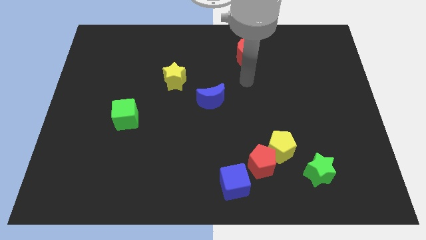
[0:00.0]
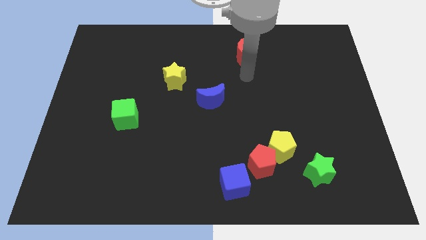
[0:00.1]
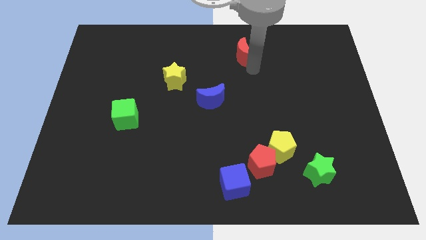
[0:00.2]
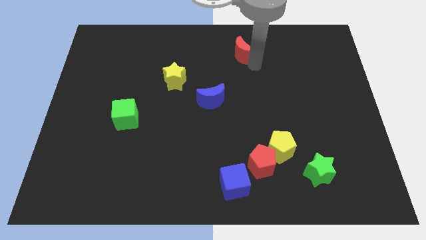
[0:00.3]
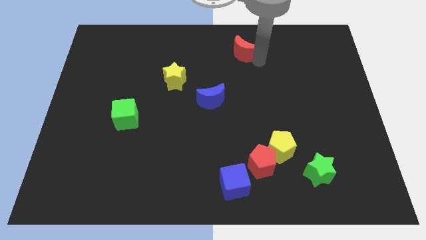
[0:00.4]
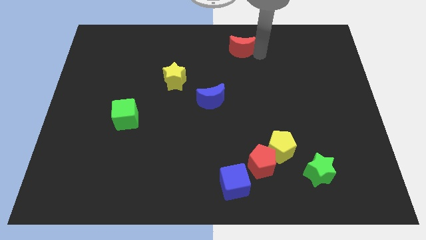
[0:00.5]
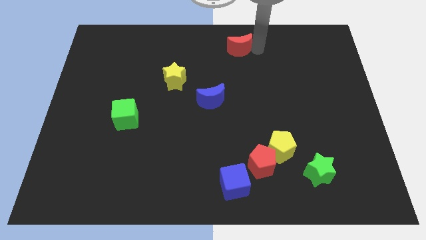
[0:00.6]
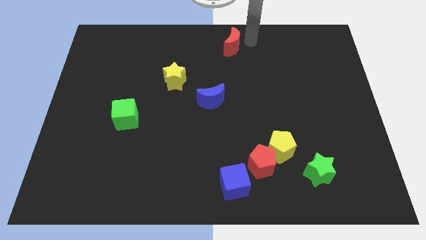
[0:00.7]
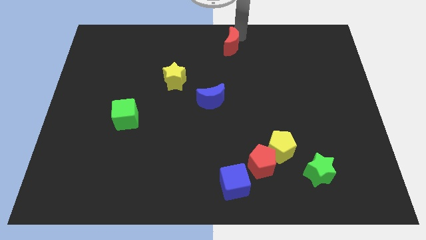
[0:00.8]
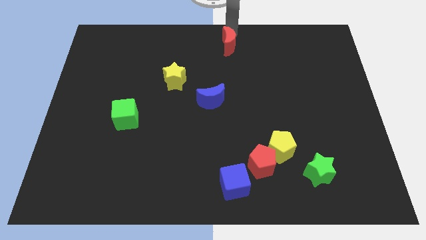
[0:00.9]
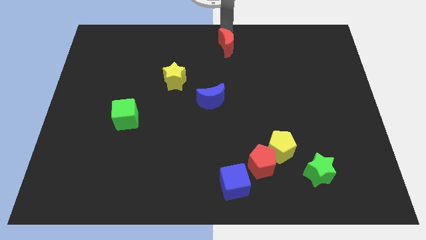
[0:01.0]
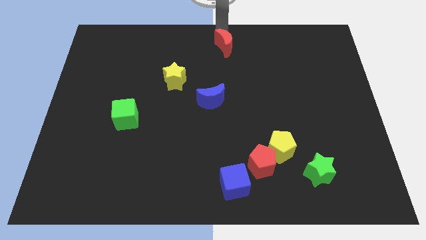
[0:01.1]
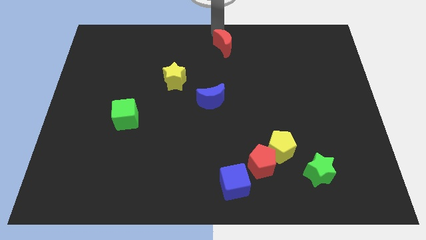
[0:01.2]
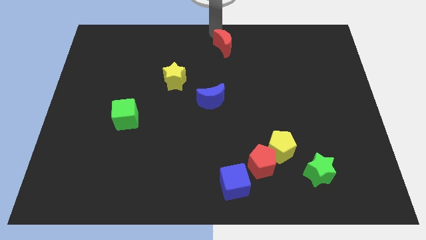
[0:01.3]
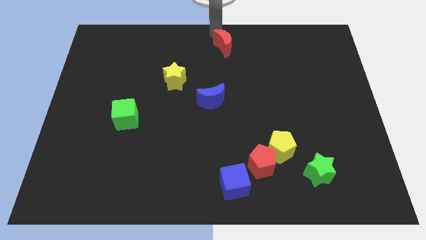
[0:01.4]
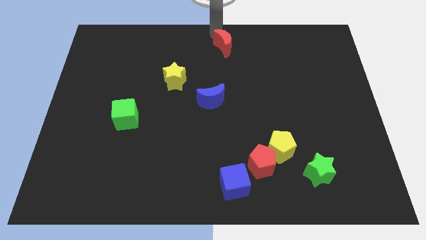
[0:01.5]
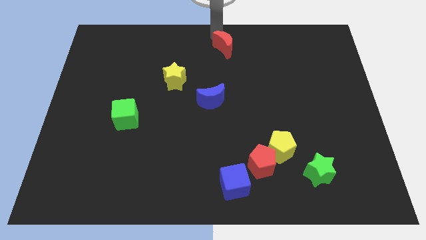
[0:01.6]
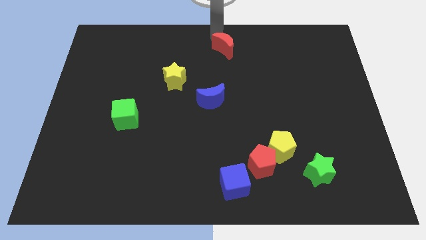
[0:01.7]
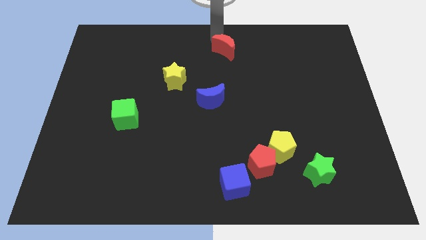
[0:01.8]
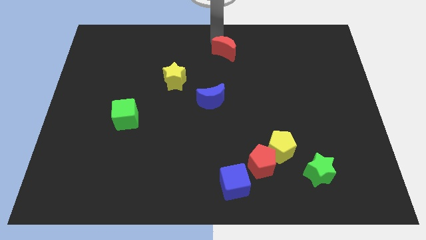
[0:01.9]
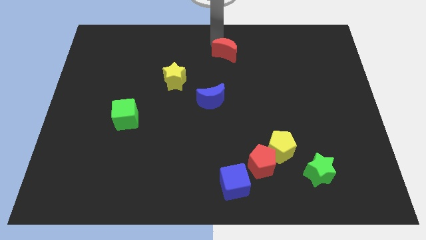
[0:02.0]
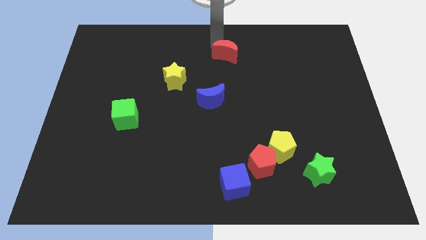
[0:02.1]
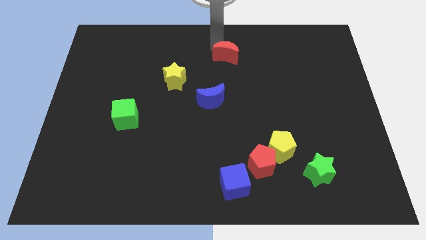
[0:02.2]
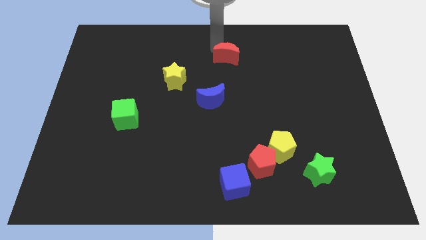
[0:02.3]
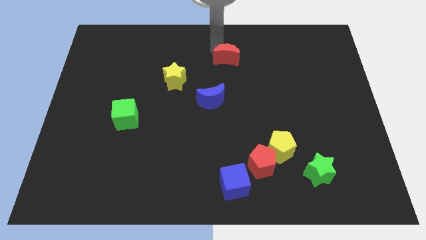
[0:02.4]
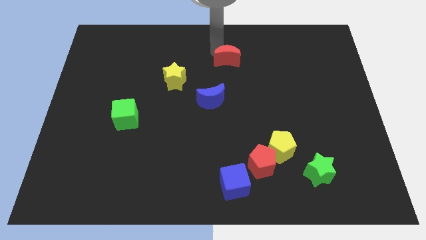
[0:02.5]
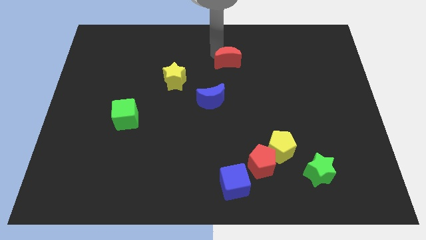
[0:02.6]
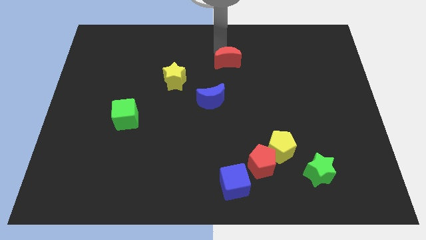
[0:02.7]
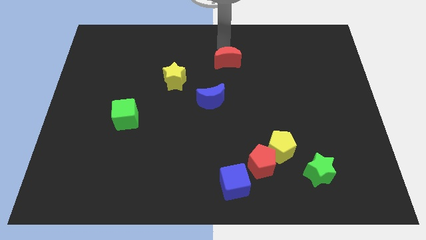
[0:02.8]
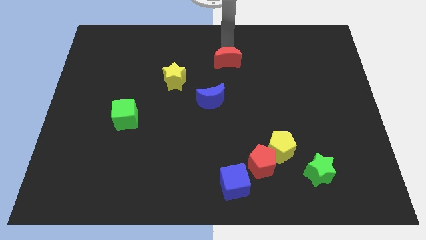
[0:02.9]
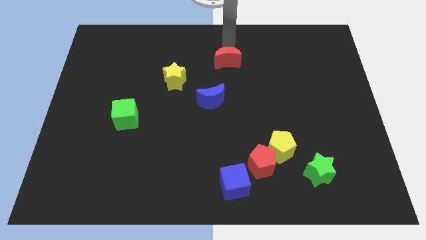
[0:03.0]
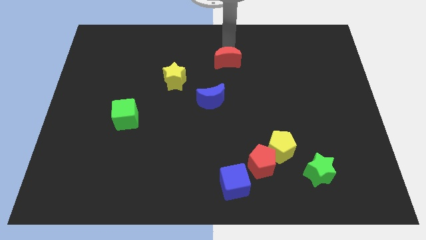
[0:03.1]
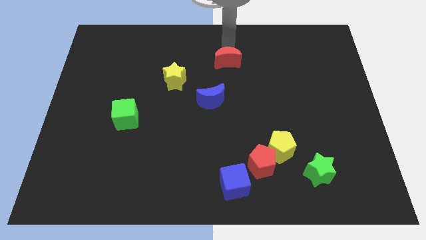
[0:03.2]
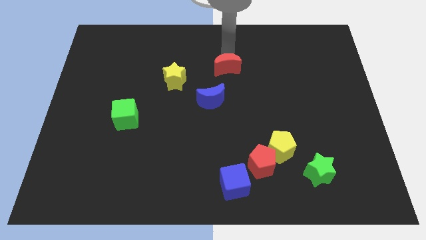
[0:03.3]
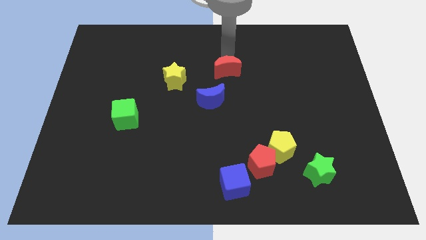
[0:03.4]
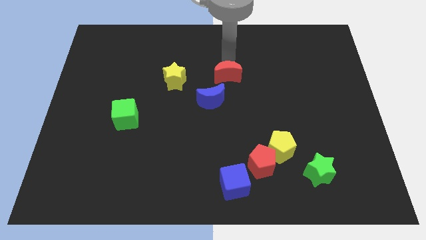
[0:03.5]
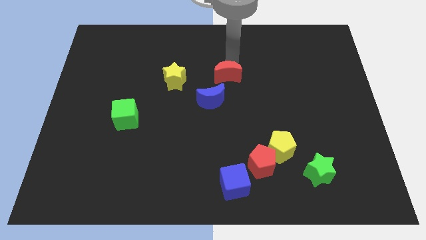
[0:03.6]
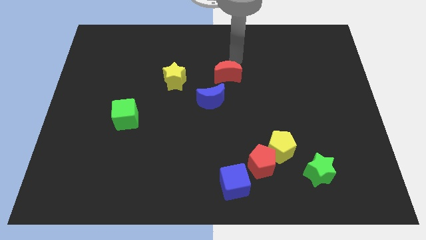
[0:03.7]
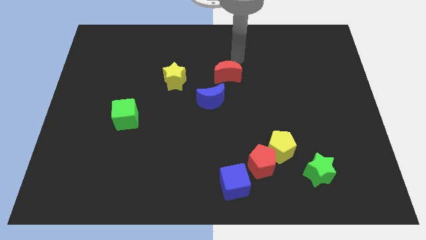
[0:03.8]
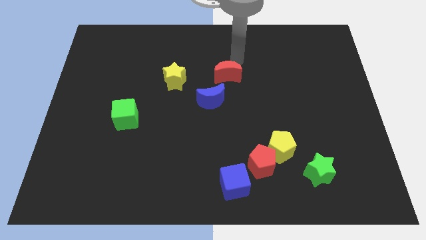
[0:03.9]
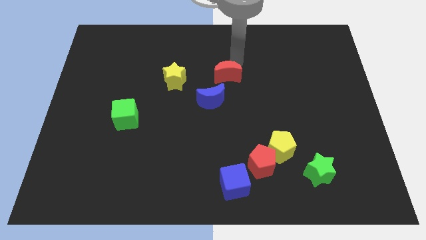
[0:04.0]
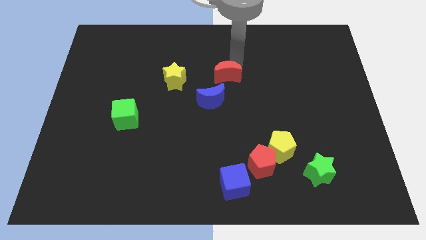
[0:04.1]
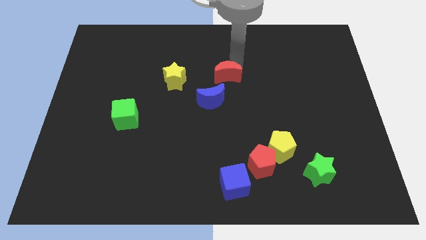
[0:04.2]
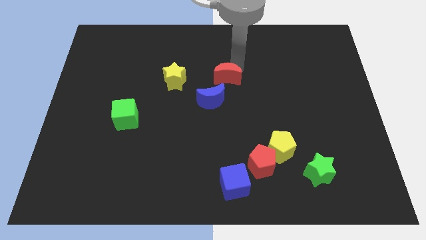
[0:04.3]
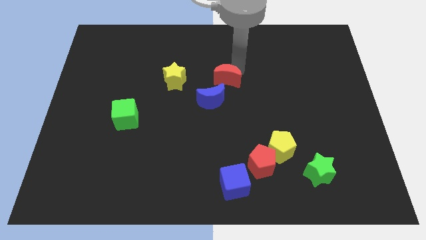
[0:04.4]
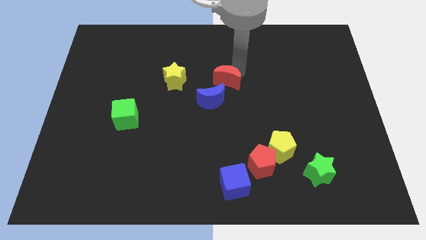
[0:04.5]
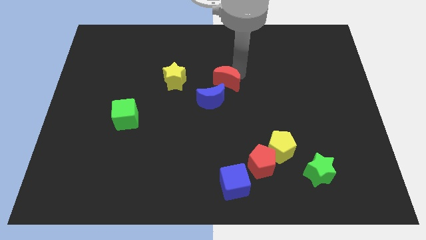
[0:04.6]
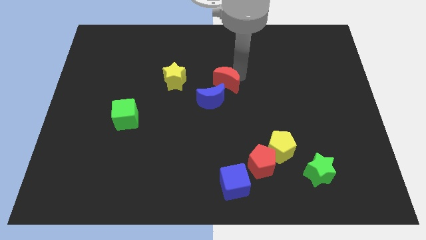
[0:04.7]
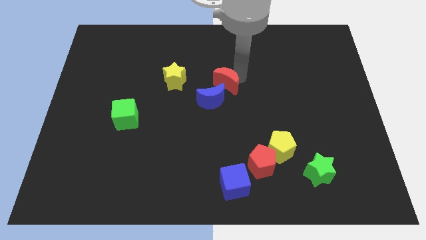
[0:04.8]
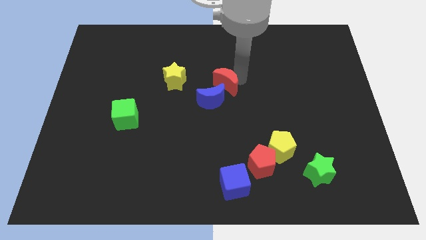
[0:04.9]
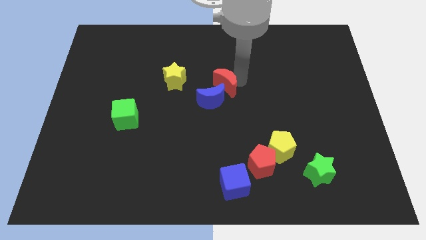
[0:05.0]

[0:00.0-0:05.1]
move the red moon close to the blue moon

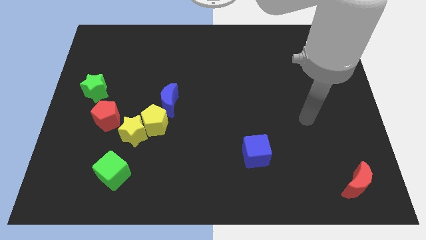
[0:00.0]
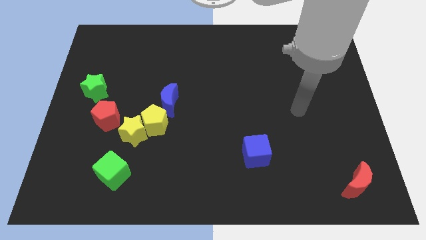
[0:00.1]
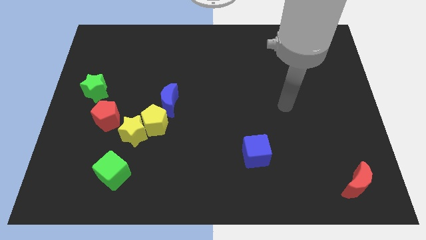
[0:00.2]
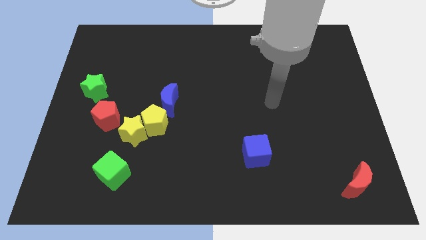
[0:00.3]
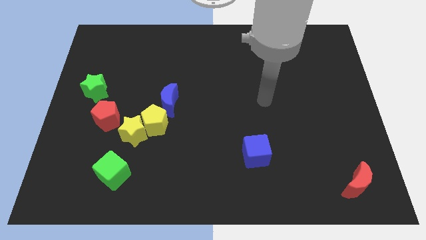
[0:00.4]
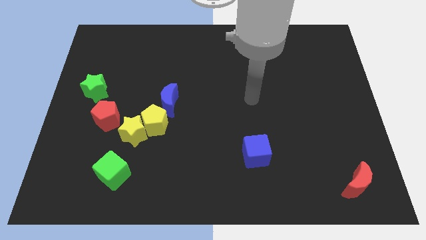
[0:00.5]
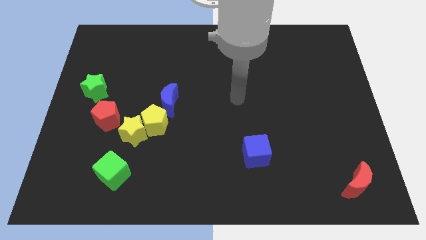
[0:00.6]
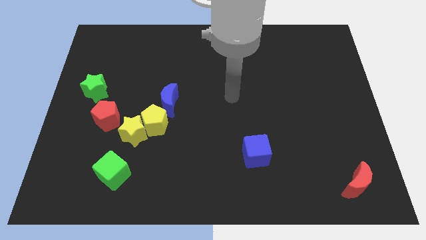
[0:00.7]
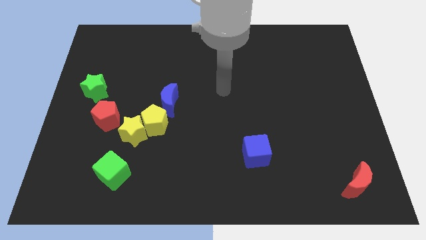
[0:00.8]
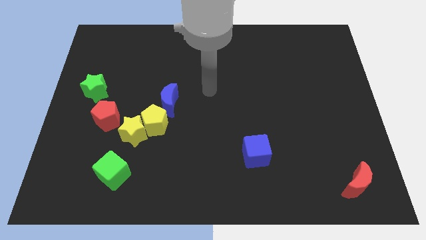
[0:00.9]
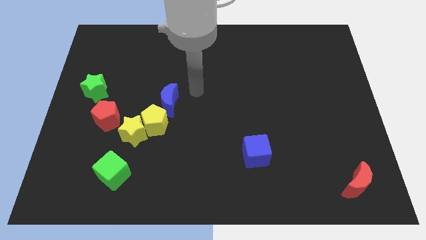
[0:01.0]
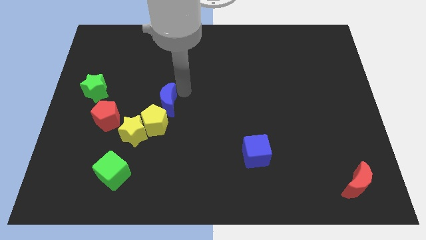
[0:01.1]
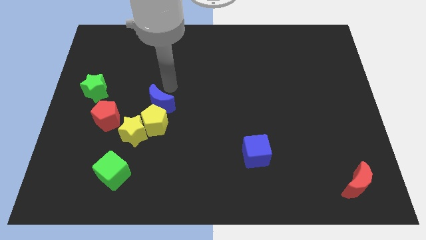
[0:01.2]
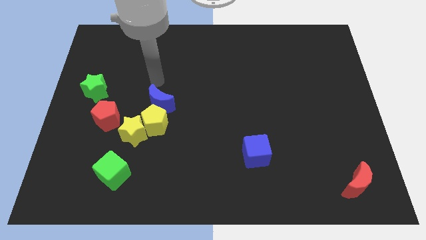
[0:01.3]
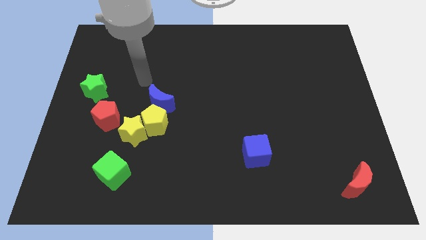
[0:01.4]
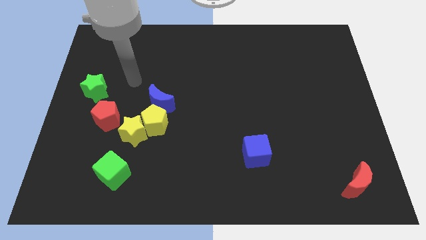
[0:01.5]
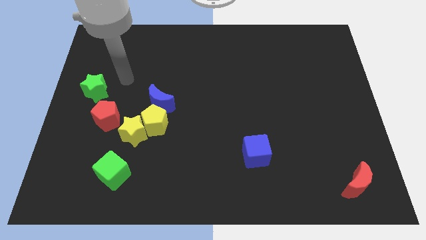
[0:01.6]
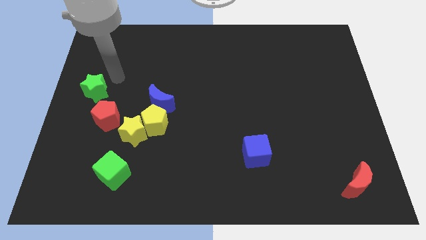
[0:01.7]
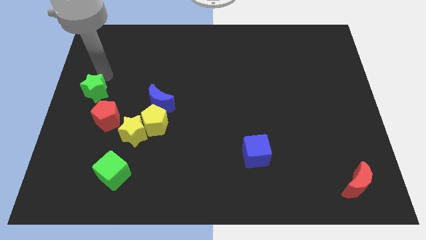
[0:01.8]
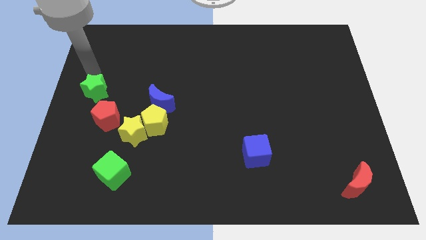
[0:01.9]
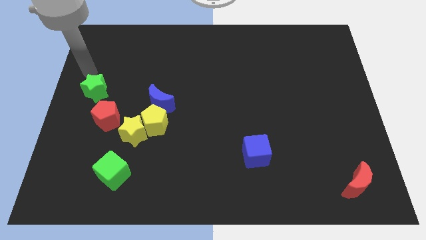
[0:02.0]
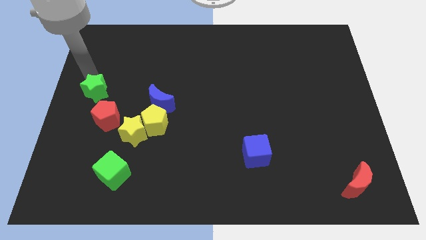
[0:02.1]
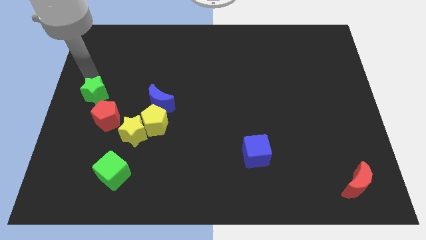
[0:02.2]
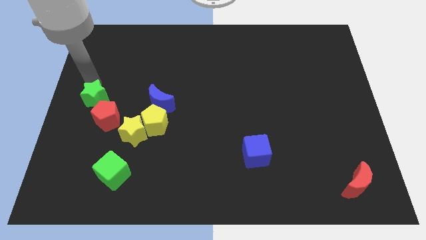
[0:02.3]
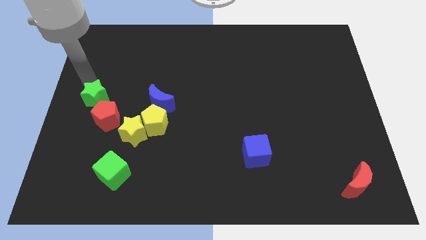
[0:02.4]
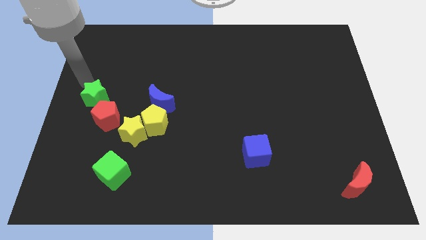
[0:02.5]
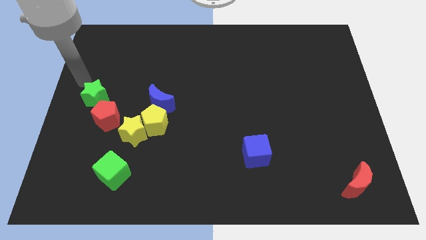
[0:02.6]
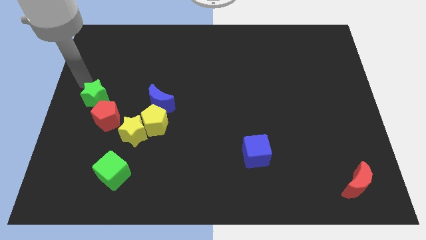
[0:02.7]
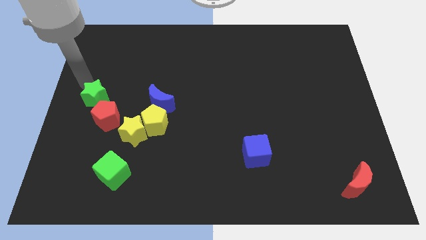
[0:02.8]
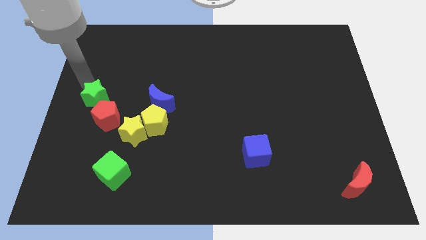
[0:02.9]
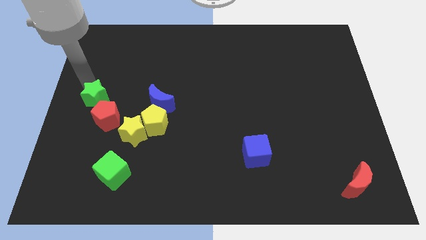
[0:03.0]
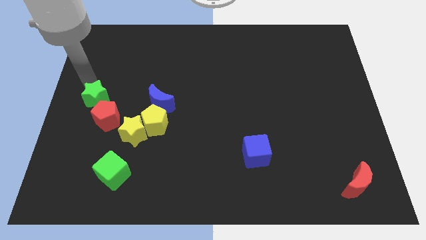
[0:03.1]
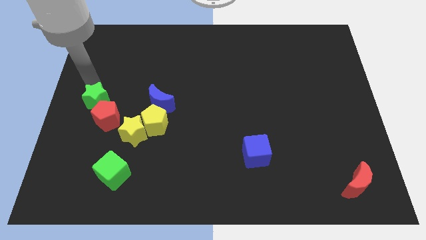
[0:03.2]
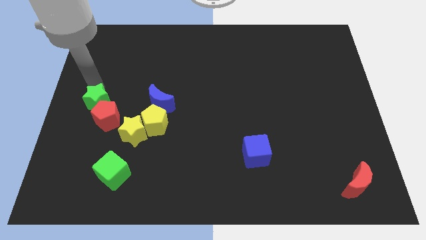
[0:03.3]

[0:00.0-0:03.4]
put the green star next to the red pentagon
